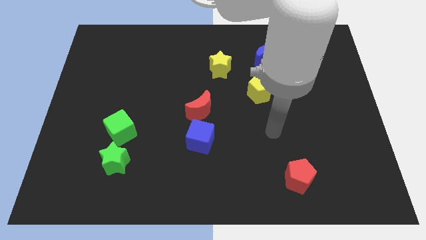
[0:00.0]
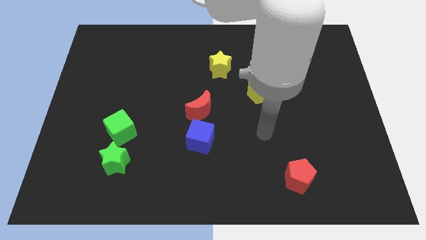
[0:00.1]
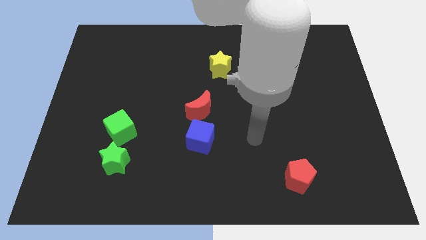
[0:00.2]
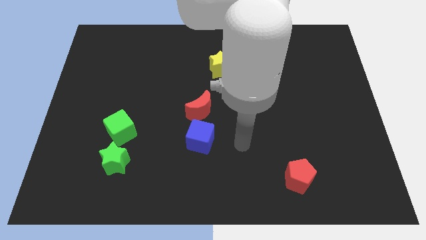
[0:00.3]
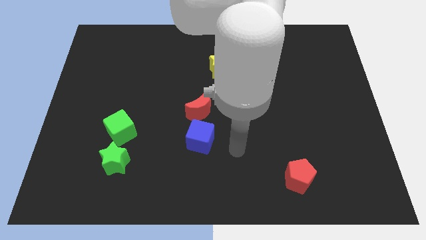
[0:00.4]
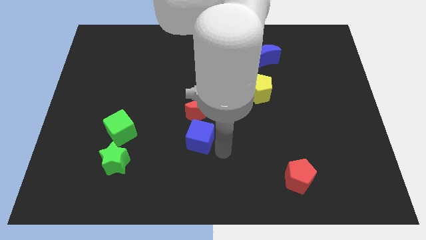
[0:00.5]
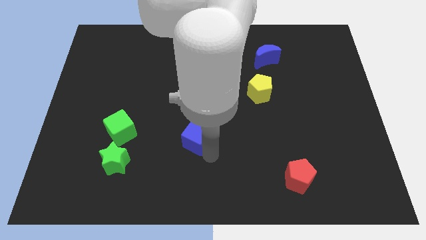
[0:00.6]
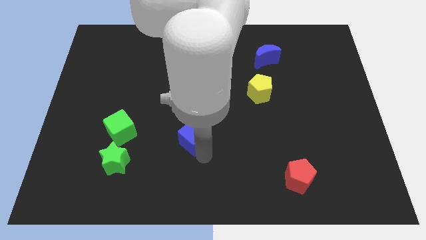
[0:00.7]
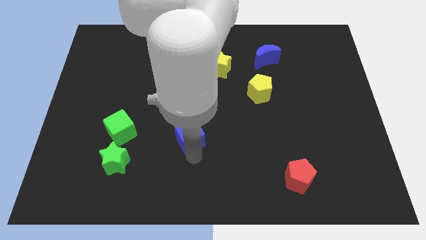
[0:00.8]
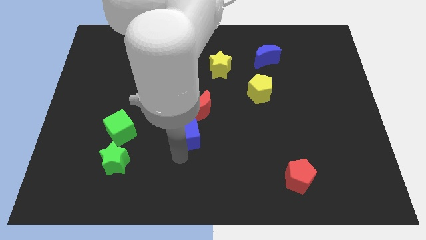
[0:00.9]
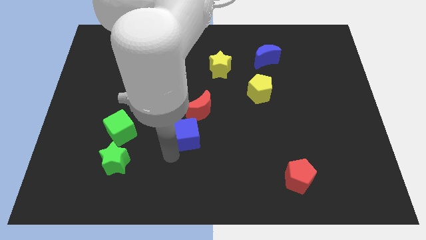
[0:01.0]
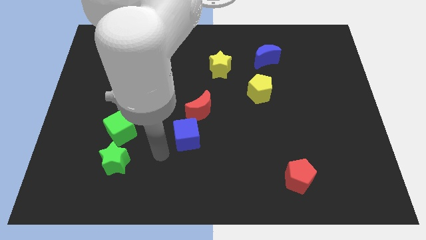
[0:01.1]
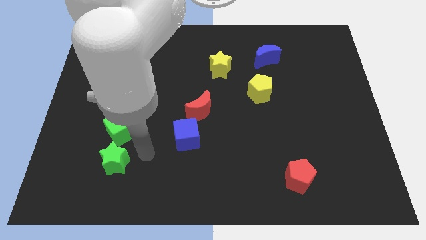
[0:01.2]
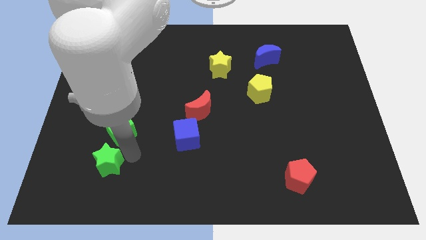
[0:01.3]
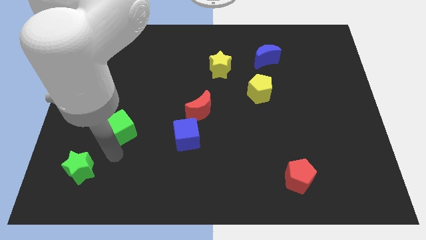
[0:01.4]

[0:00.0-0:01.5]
move the green cube away from the green star

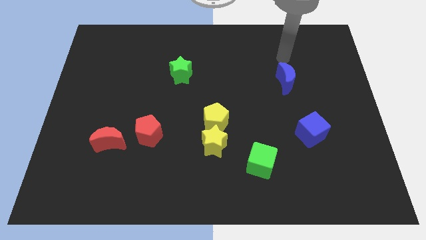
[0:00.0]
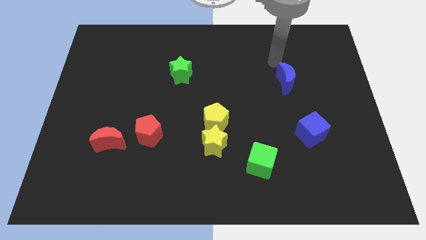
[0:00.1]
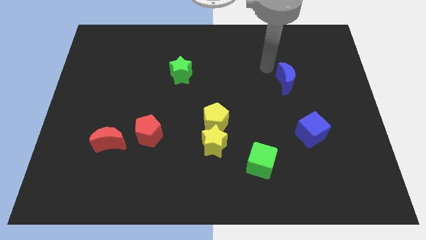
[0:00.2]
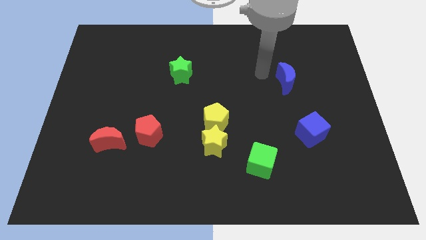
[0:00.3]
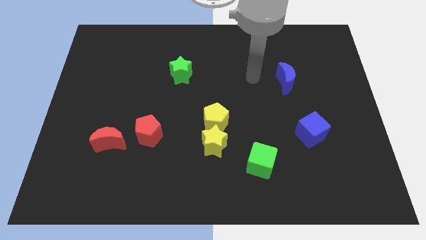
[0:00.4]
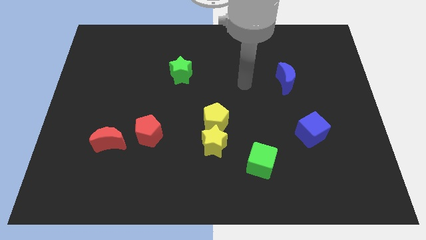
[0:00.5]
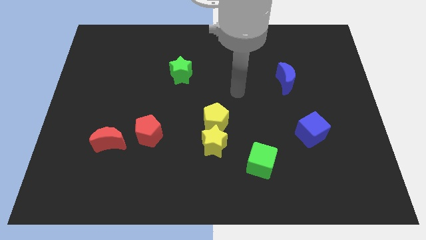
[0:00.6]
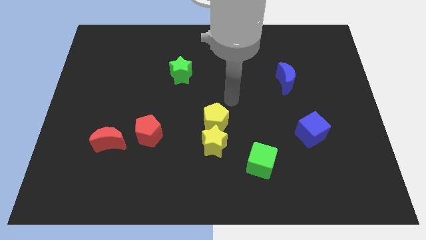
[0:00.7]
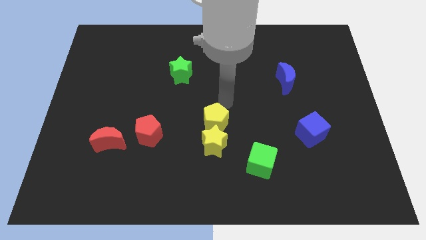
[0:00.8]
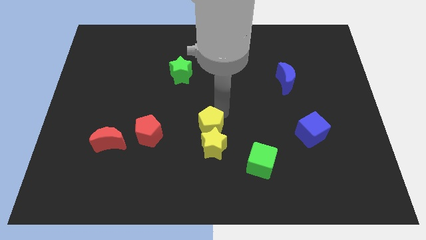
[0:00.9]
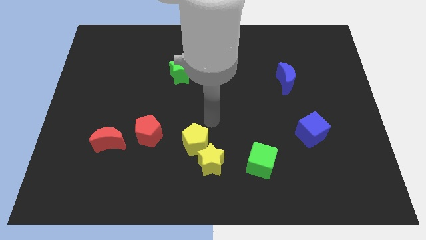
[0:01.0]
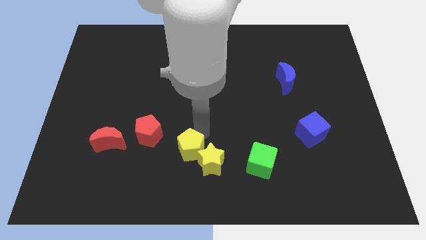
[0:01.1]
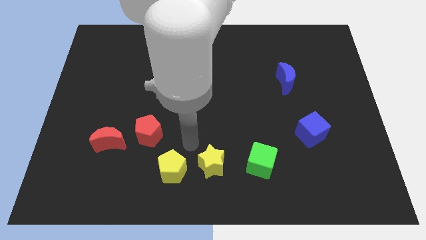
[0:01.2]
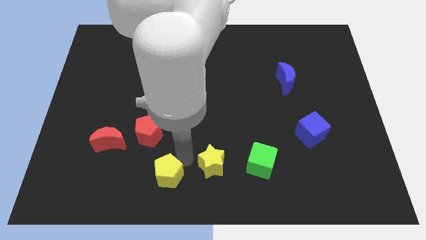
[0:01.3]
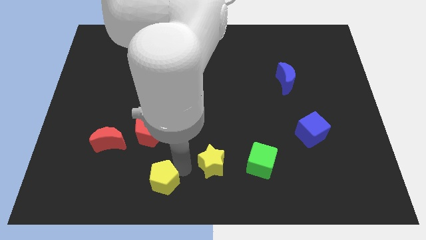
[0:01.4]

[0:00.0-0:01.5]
move the yellow star away from the yellow pentagon

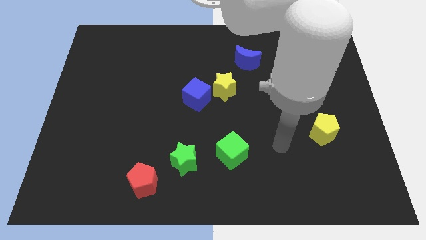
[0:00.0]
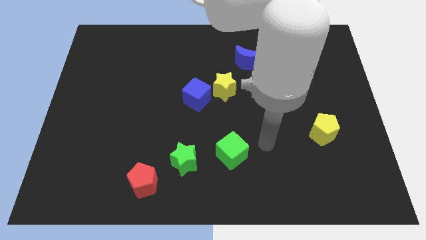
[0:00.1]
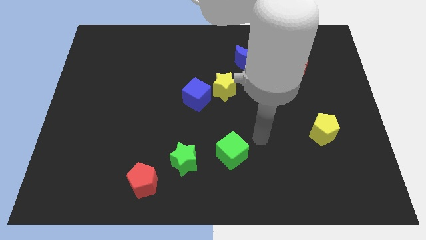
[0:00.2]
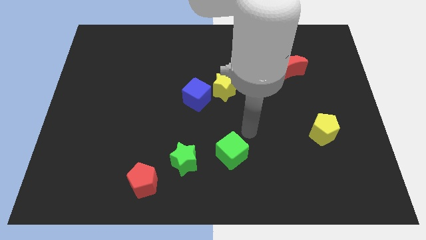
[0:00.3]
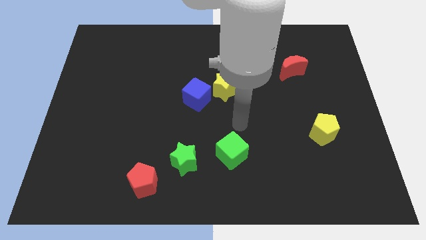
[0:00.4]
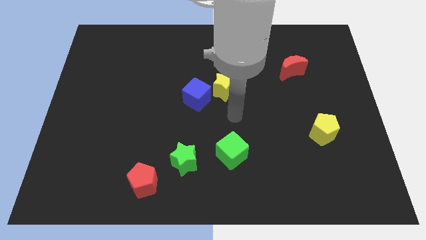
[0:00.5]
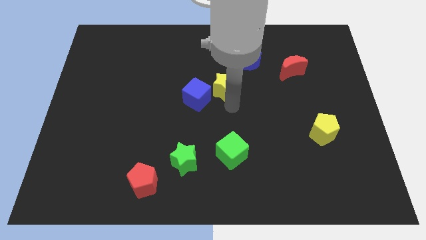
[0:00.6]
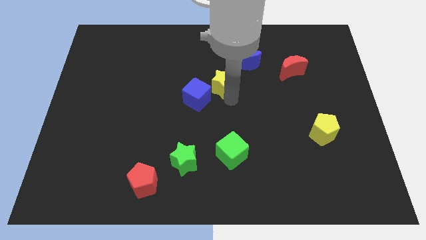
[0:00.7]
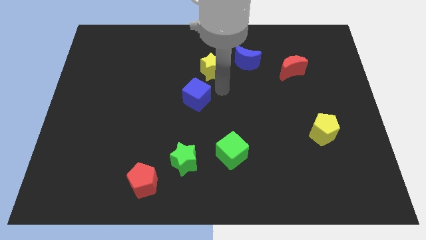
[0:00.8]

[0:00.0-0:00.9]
move the blue cube away from the yellow star

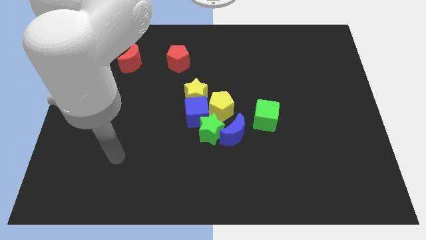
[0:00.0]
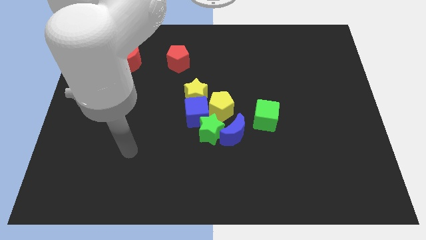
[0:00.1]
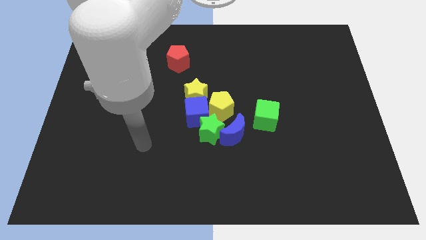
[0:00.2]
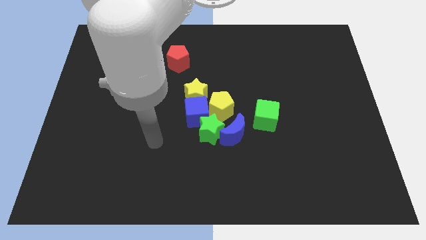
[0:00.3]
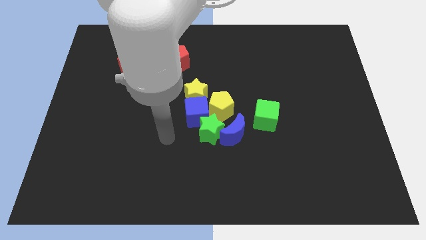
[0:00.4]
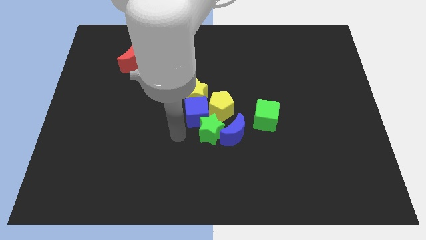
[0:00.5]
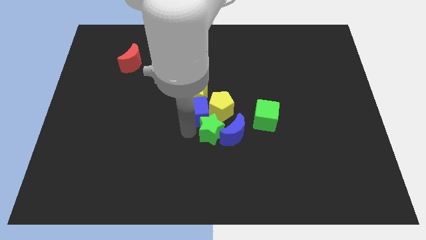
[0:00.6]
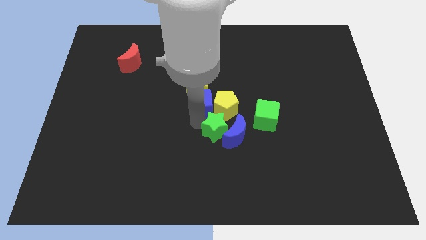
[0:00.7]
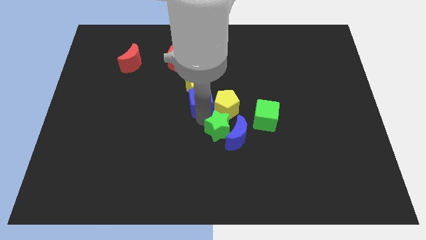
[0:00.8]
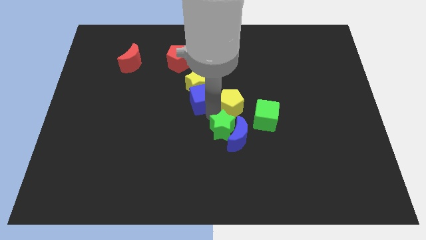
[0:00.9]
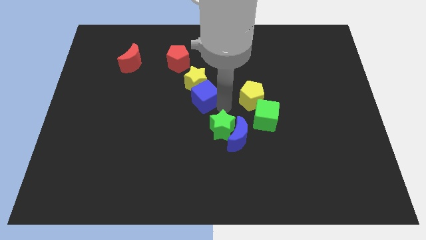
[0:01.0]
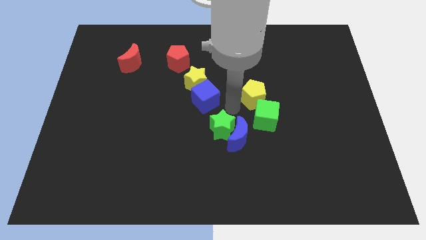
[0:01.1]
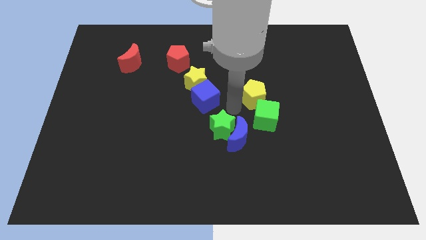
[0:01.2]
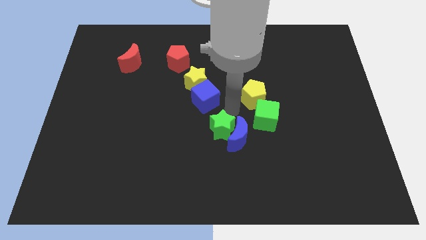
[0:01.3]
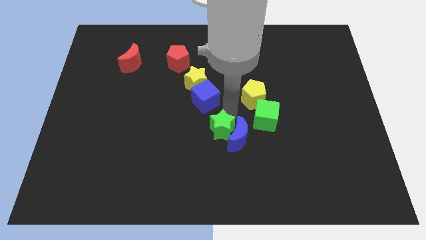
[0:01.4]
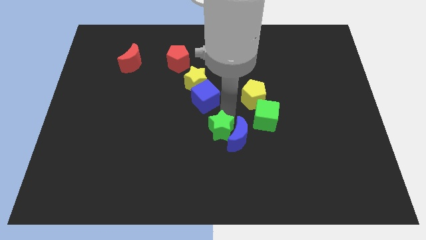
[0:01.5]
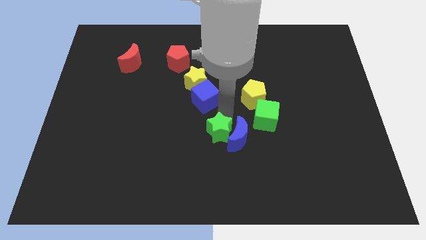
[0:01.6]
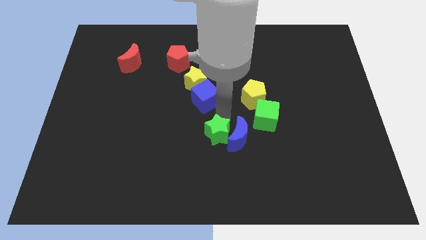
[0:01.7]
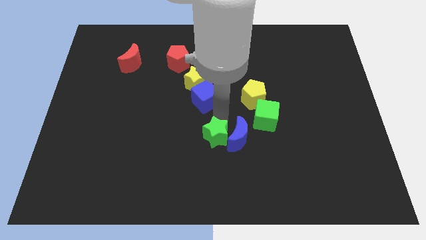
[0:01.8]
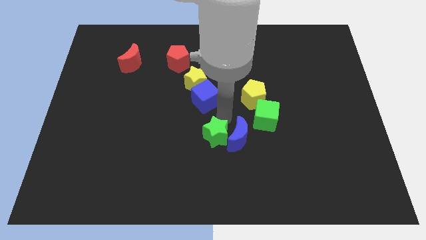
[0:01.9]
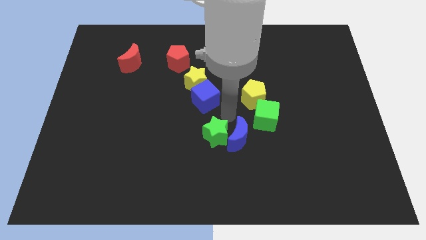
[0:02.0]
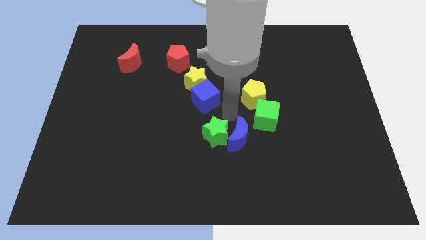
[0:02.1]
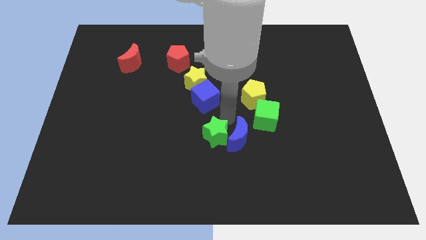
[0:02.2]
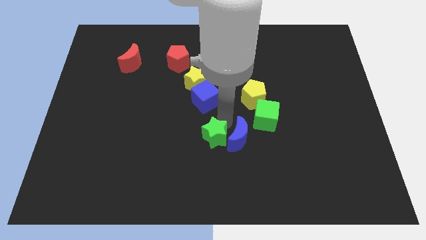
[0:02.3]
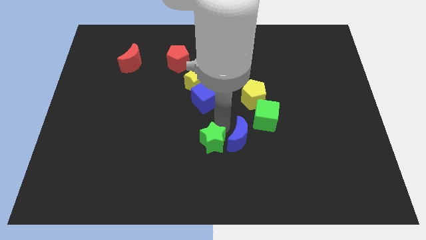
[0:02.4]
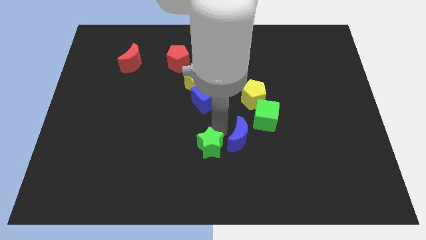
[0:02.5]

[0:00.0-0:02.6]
move the green star away from the blue moon, blue cube, and yellow pentagon

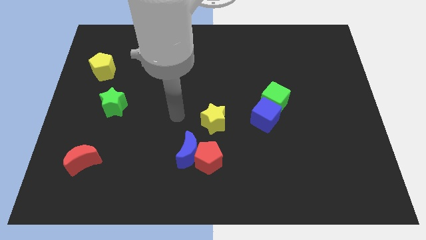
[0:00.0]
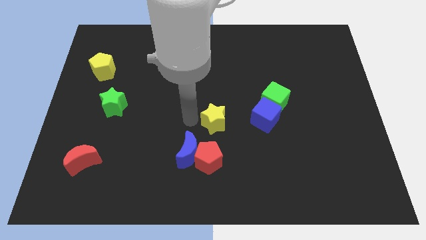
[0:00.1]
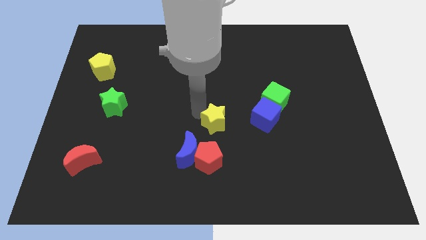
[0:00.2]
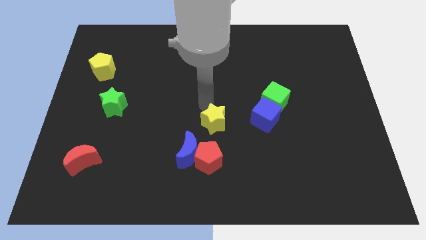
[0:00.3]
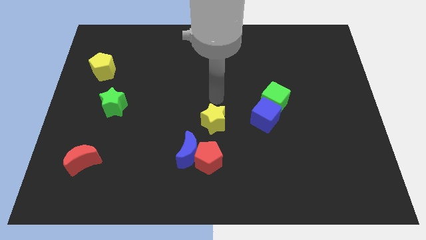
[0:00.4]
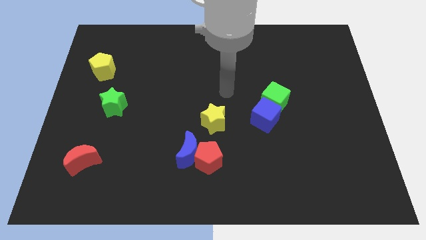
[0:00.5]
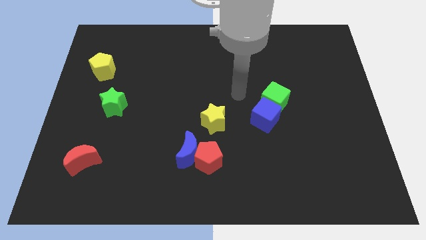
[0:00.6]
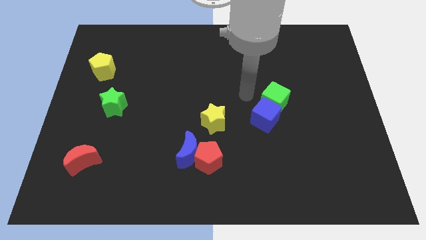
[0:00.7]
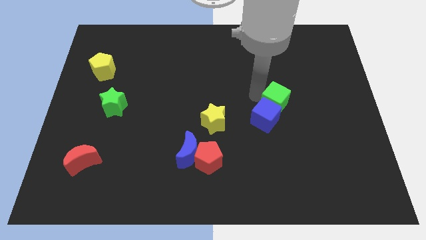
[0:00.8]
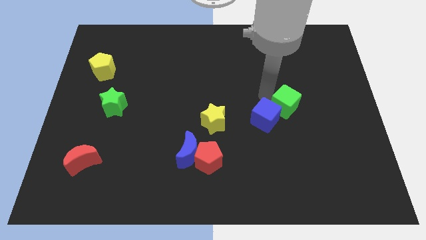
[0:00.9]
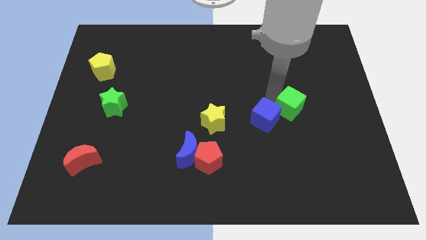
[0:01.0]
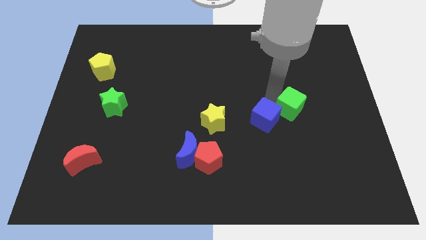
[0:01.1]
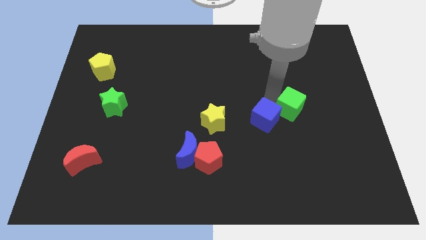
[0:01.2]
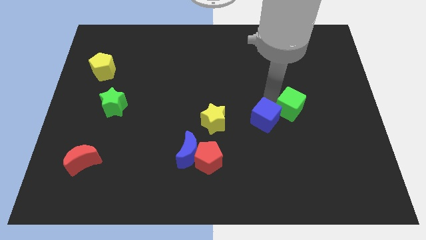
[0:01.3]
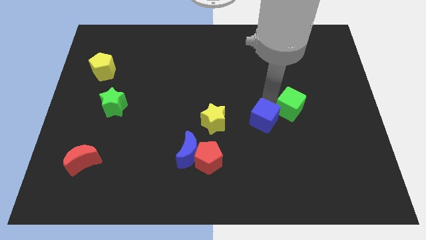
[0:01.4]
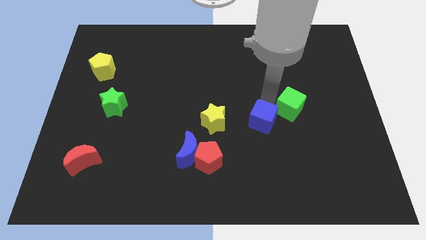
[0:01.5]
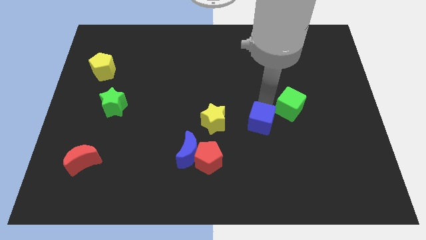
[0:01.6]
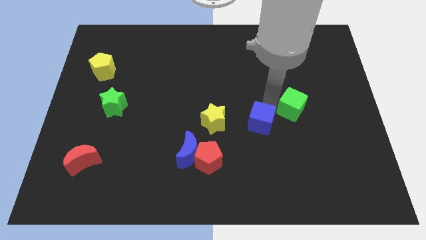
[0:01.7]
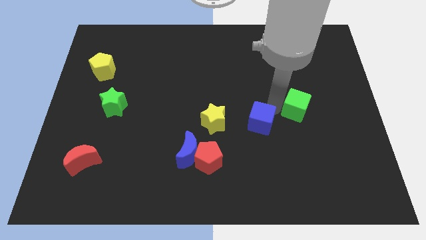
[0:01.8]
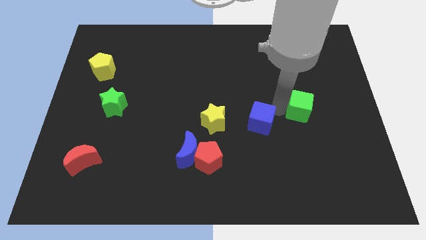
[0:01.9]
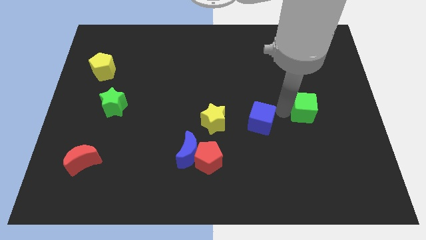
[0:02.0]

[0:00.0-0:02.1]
move the blue cube away from the green cube

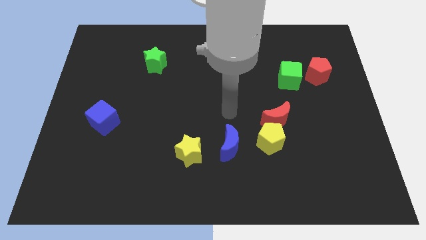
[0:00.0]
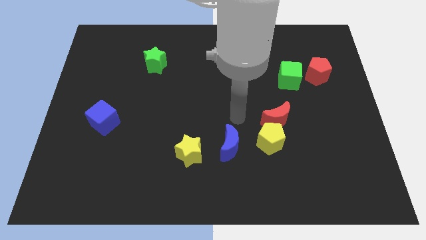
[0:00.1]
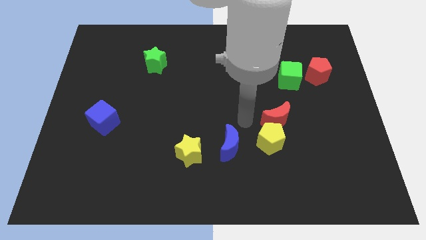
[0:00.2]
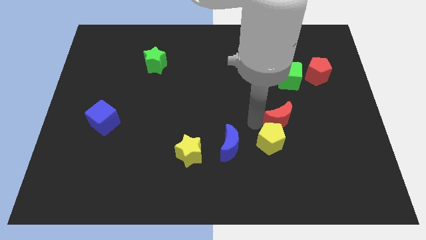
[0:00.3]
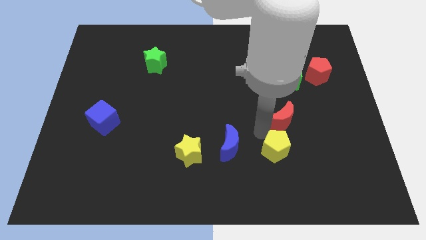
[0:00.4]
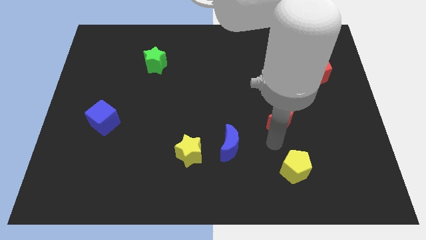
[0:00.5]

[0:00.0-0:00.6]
separate the red moon from the yellow pentagon

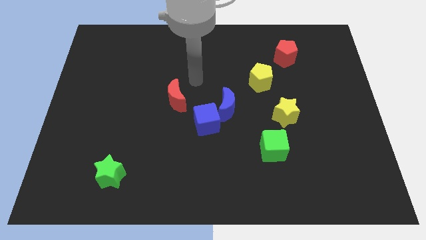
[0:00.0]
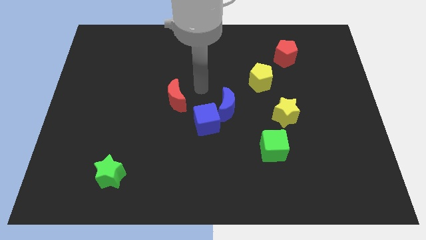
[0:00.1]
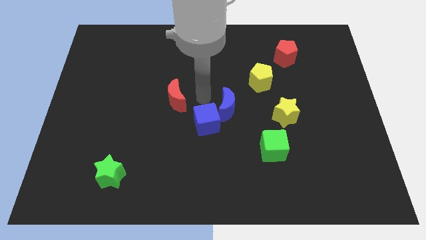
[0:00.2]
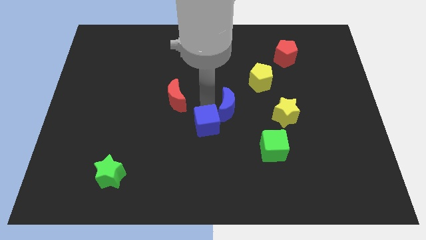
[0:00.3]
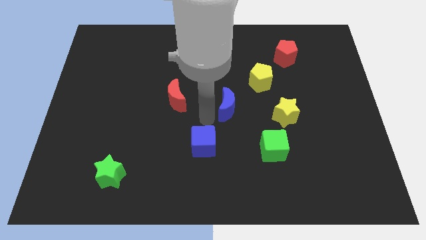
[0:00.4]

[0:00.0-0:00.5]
pull the blue moon apart from the blue cube
